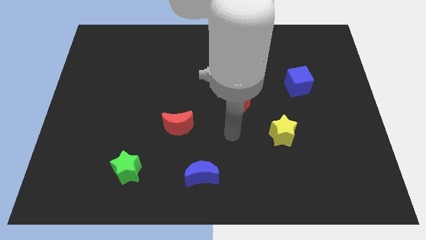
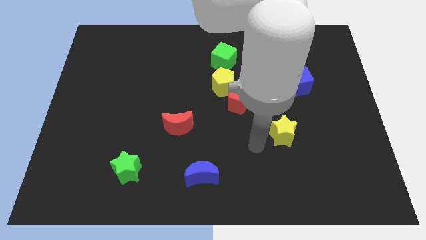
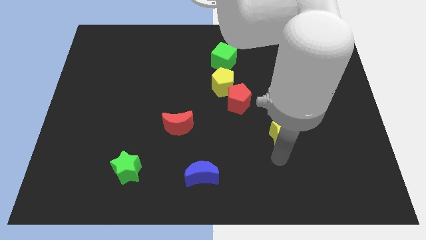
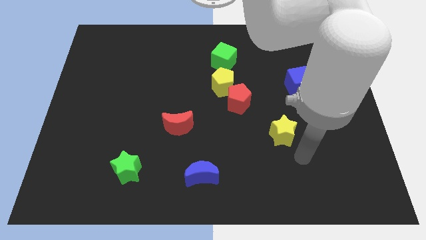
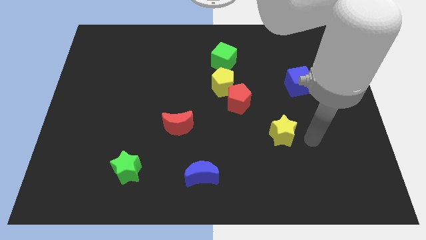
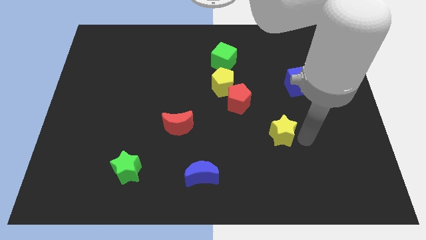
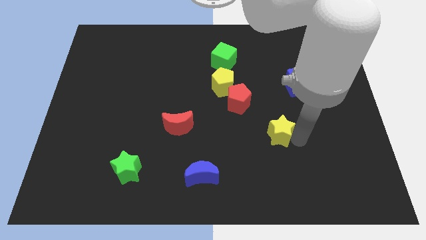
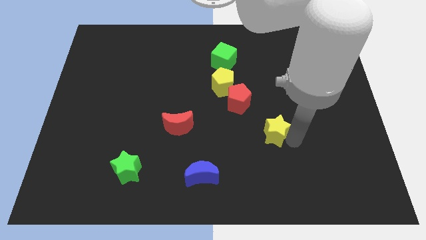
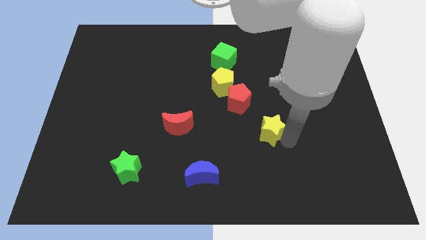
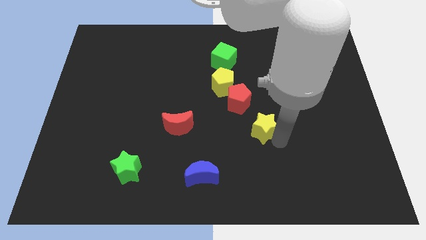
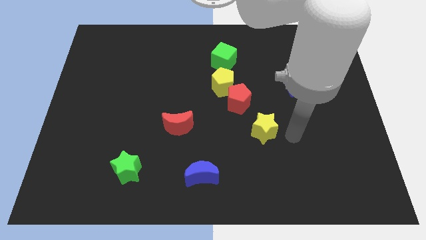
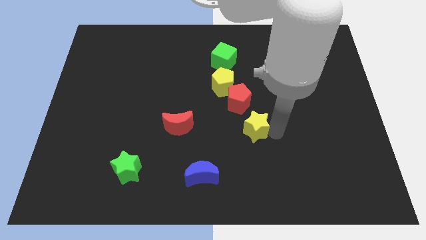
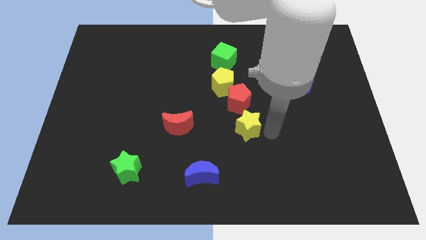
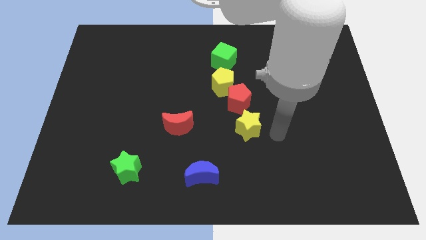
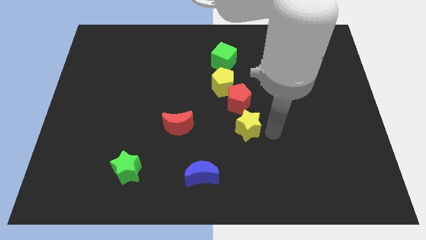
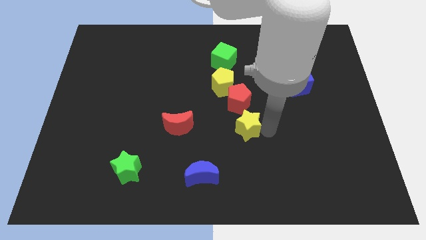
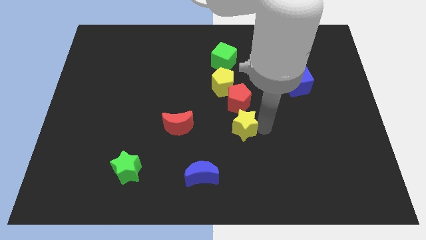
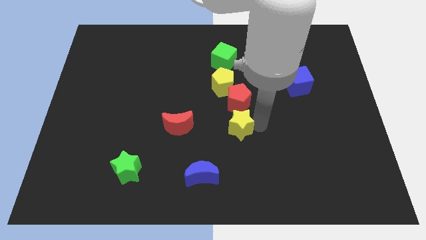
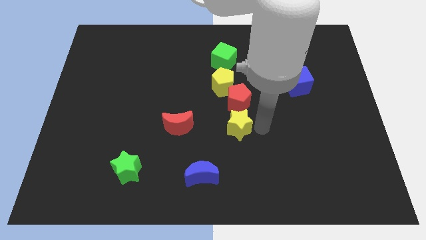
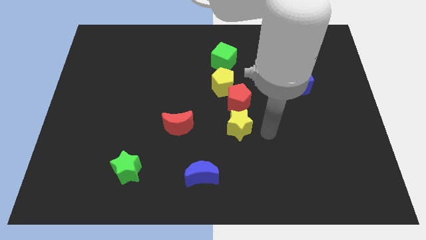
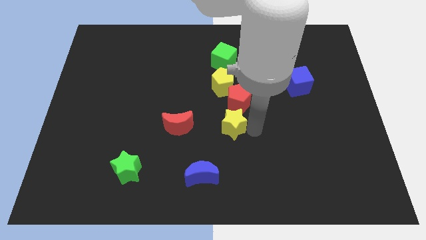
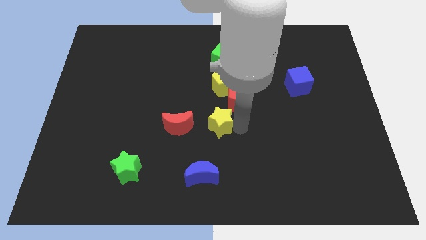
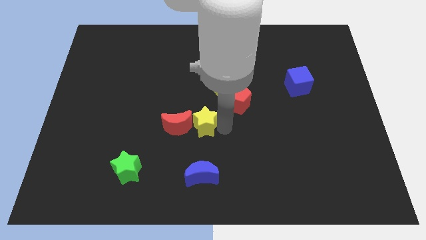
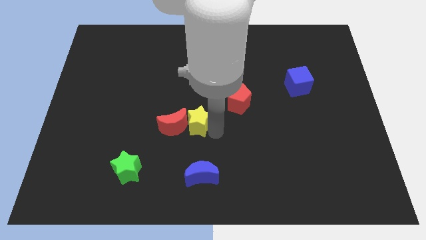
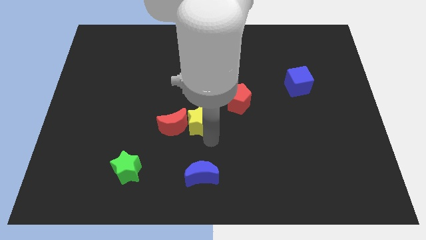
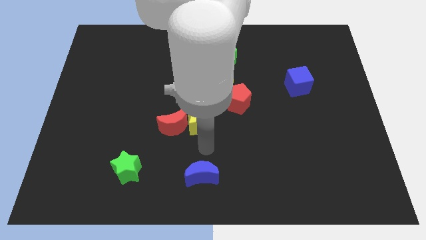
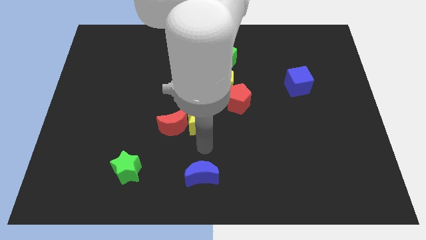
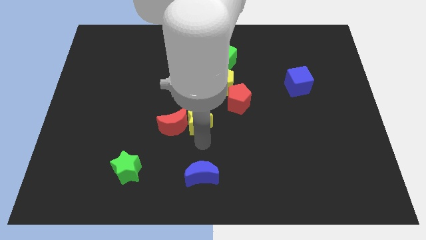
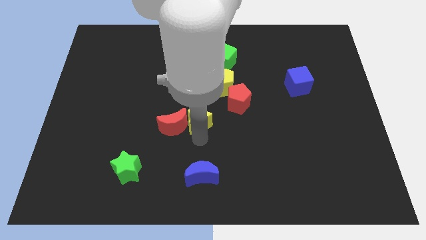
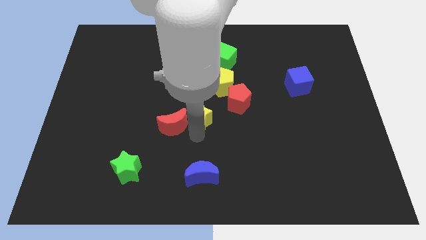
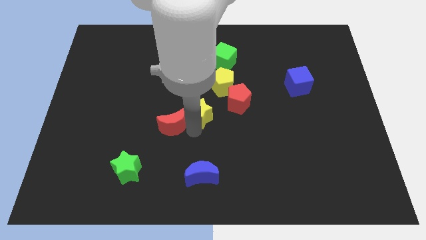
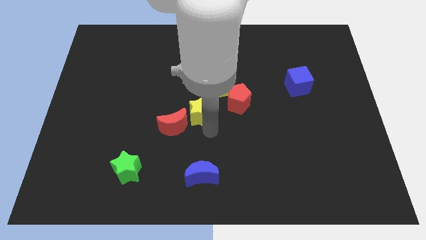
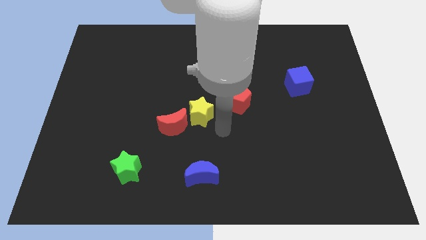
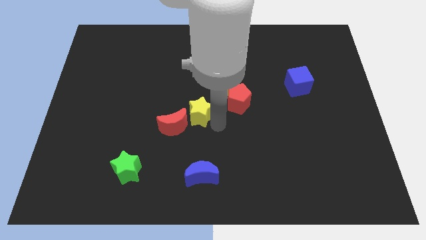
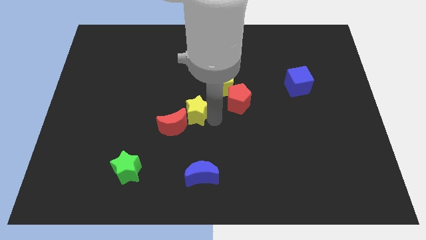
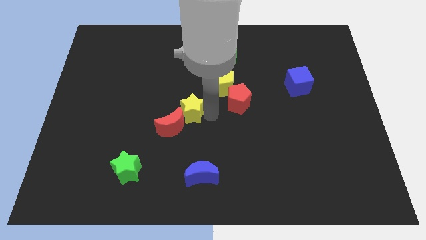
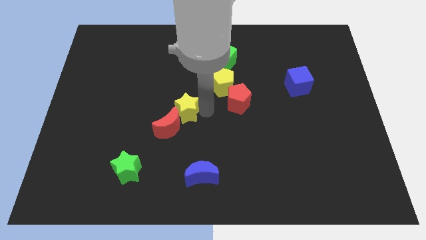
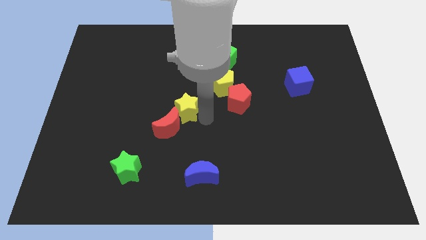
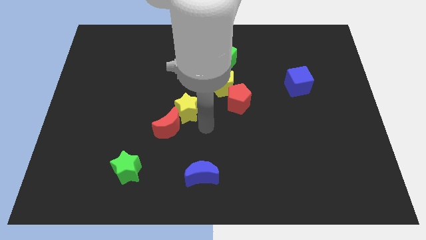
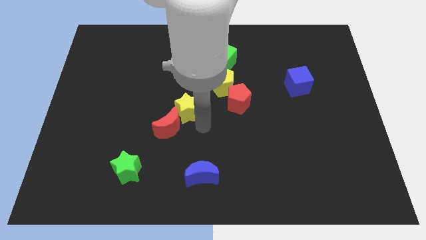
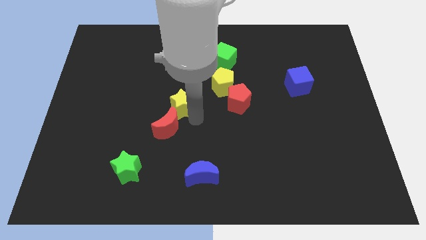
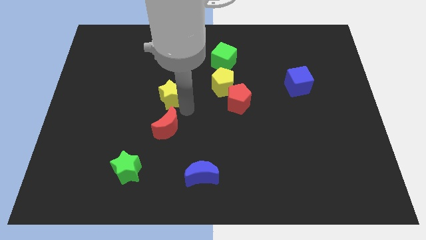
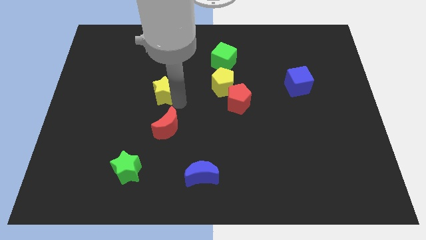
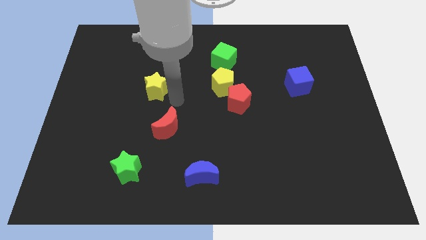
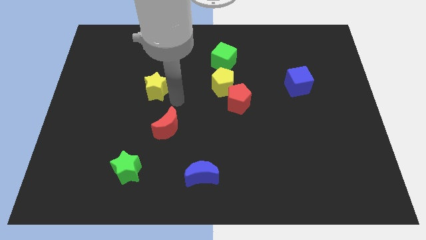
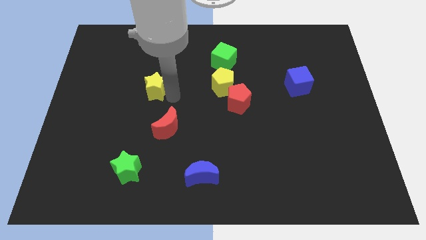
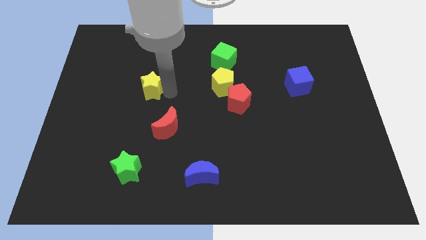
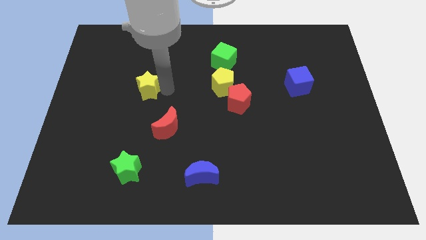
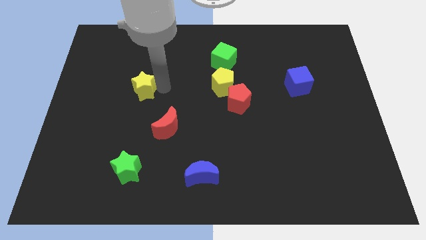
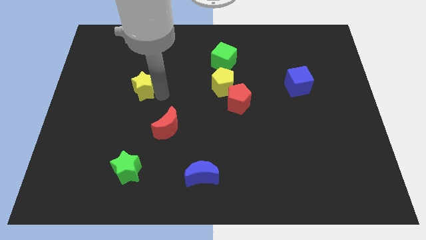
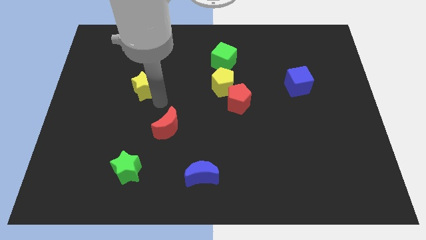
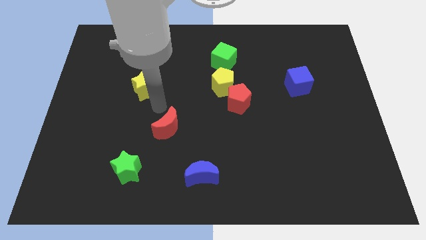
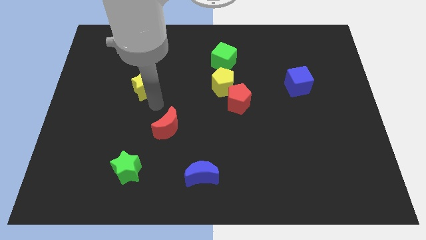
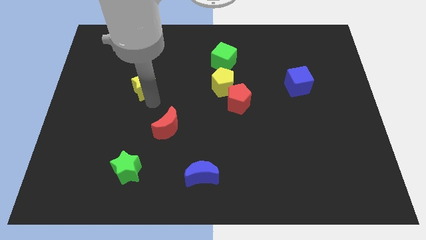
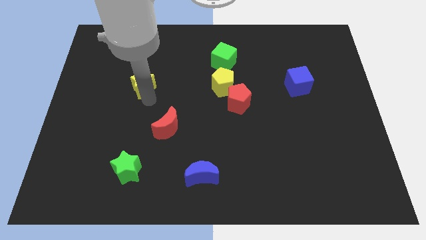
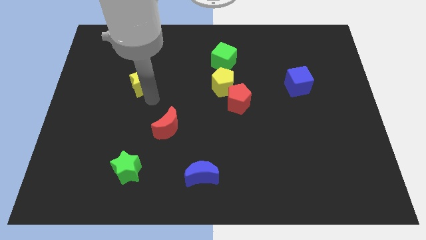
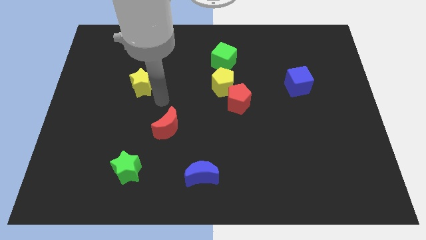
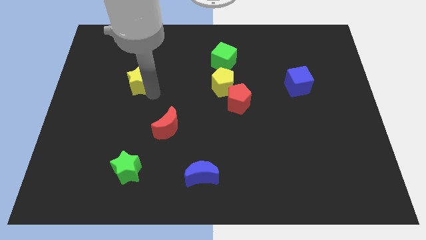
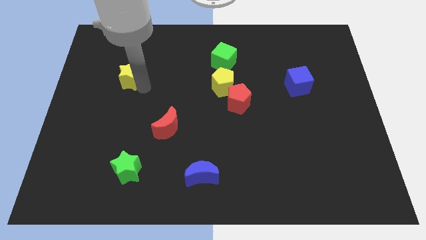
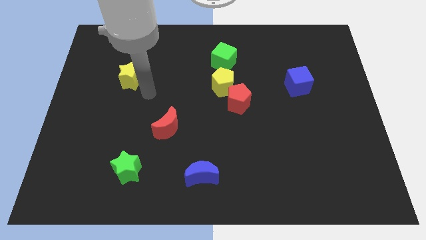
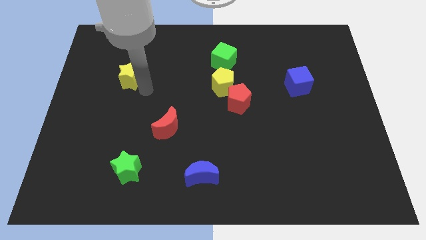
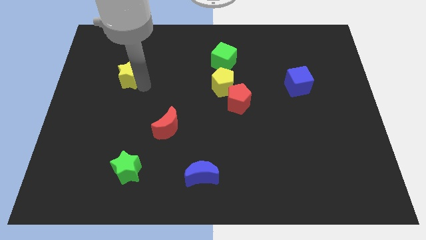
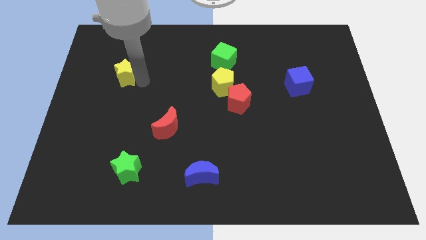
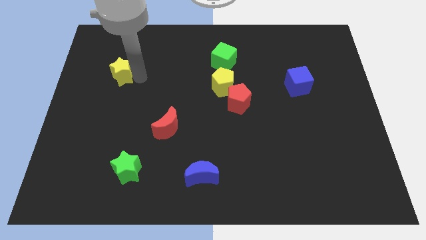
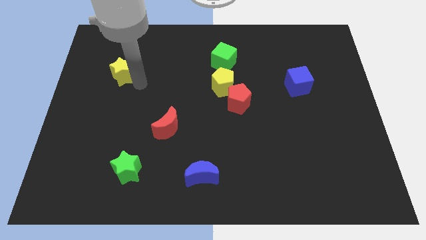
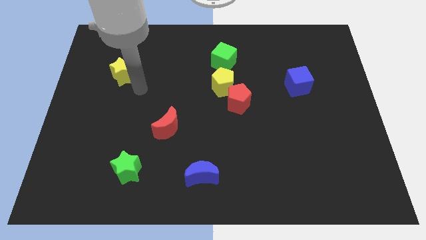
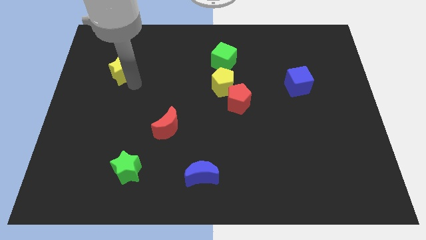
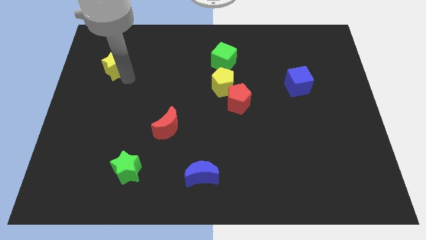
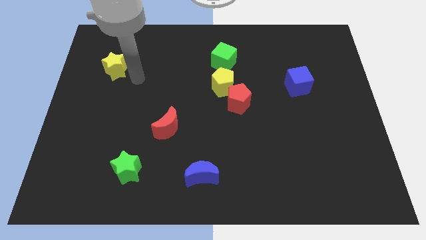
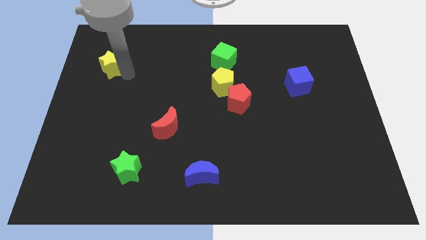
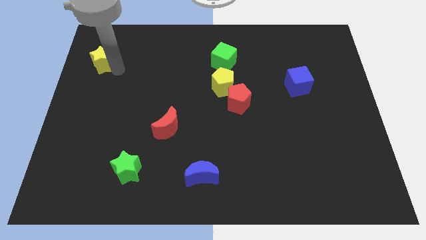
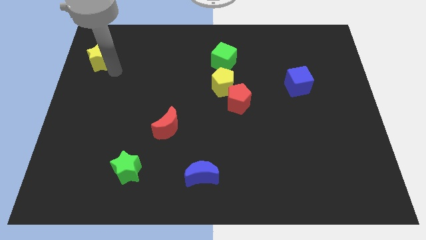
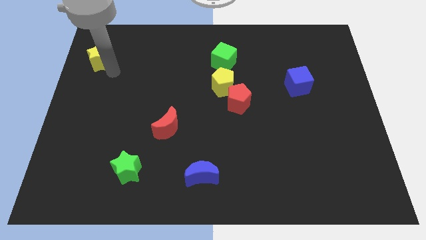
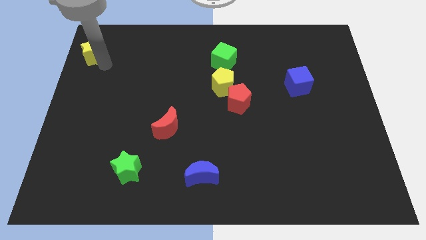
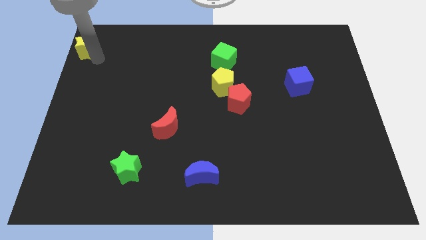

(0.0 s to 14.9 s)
slide the yellow star to the top left corner
